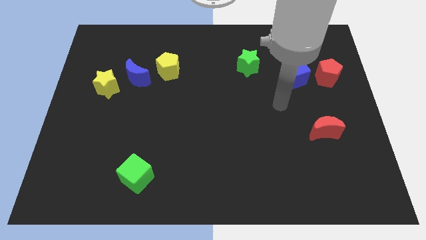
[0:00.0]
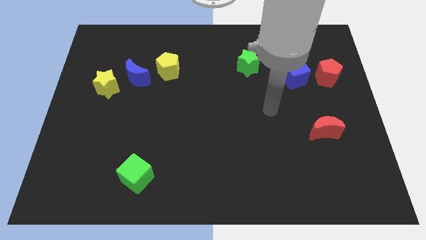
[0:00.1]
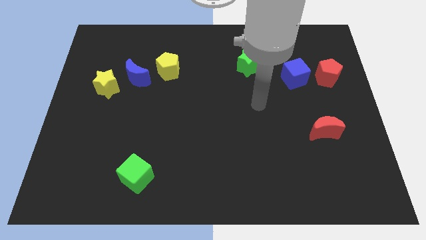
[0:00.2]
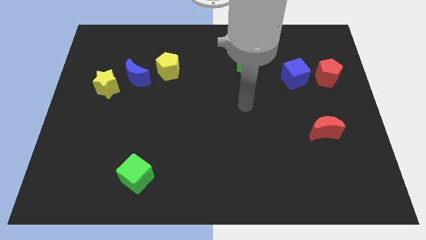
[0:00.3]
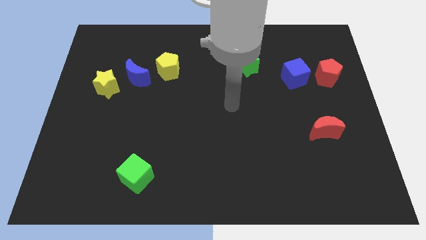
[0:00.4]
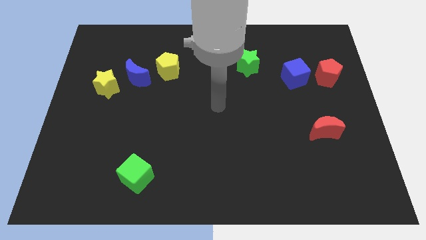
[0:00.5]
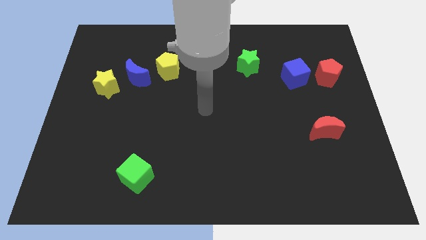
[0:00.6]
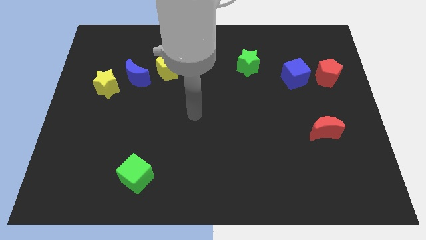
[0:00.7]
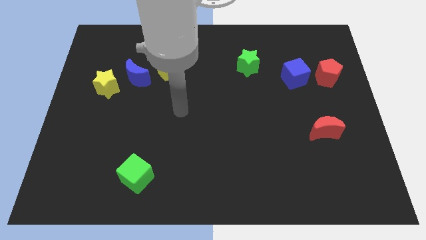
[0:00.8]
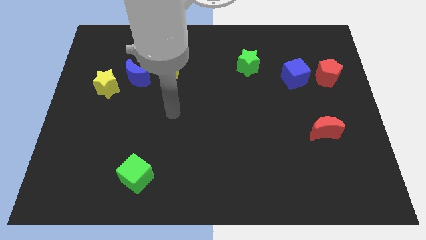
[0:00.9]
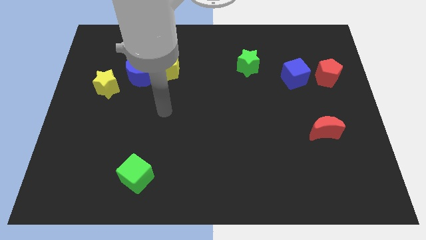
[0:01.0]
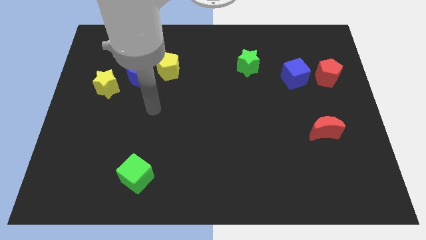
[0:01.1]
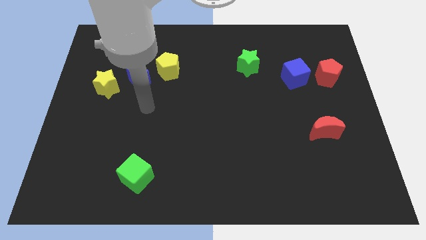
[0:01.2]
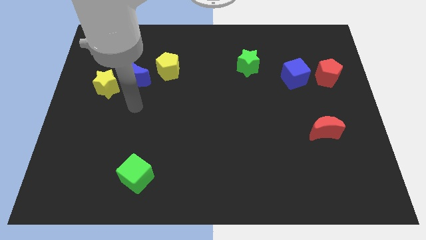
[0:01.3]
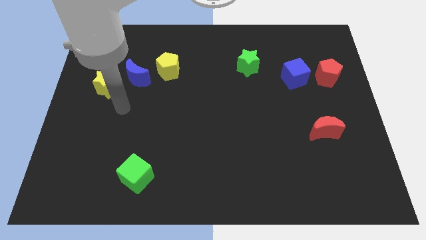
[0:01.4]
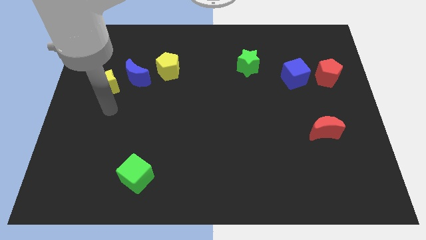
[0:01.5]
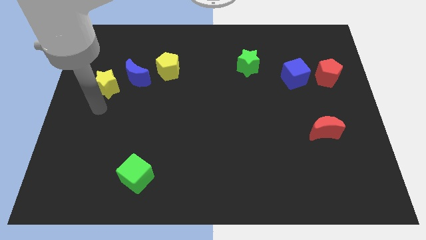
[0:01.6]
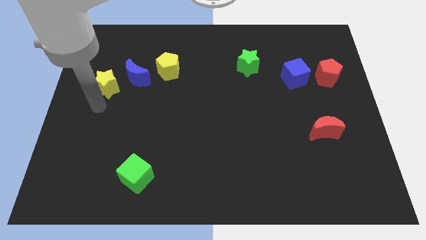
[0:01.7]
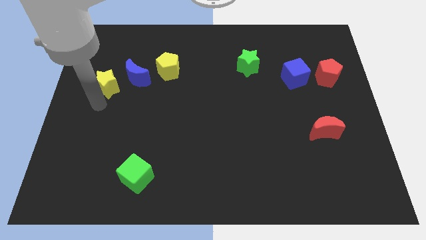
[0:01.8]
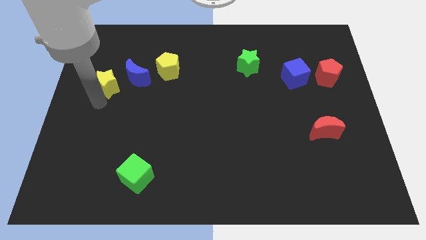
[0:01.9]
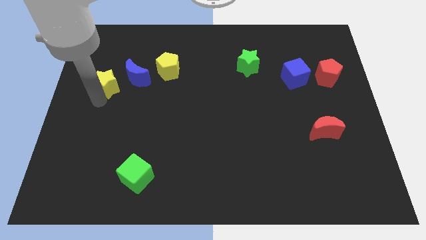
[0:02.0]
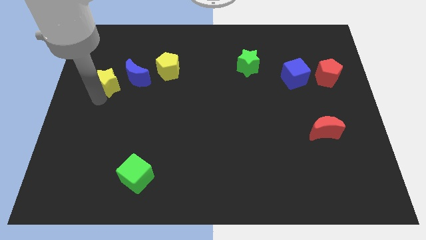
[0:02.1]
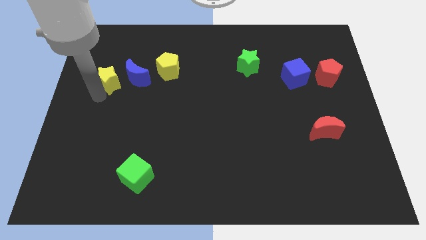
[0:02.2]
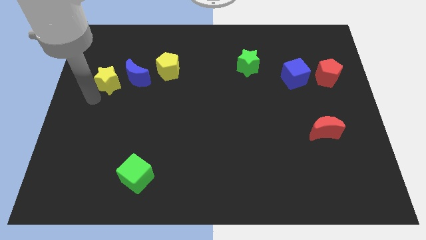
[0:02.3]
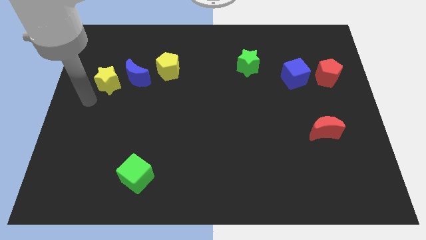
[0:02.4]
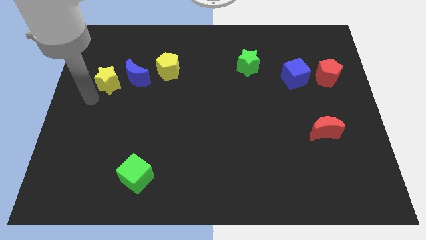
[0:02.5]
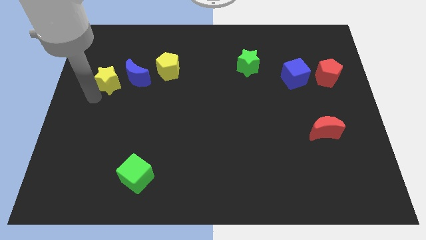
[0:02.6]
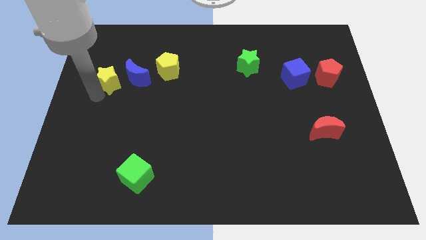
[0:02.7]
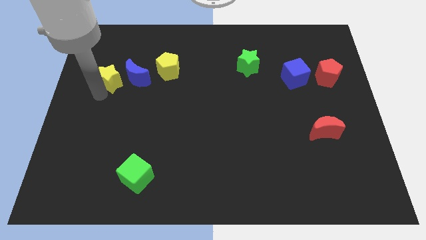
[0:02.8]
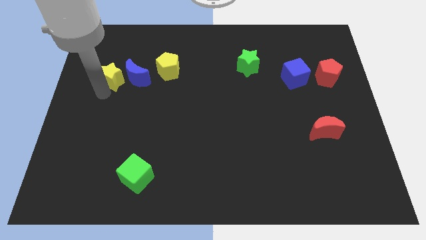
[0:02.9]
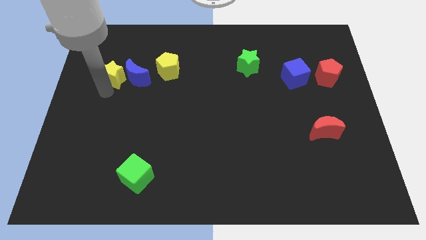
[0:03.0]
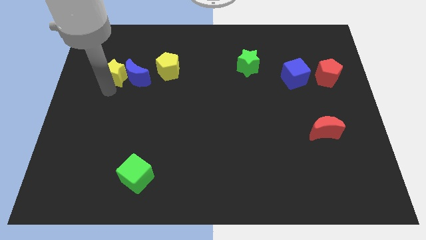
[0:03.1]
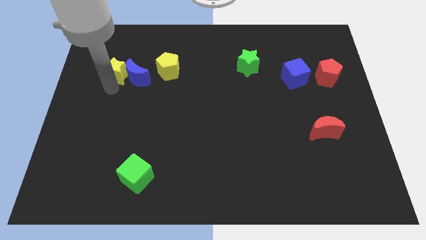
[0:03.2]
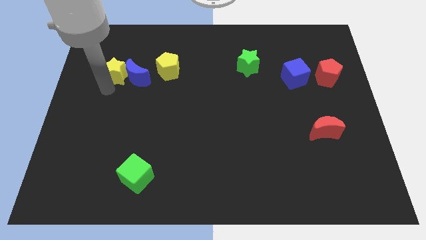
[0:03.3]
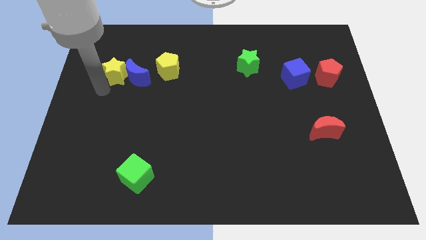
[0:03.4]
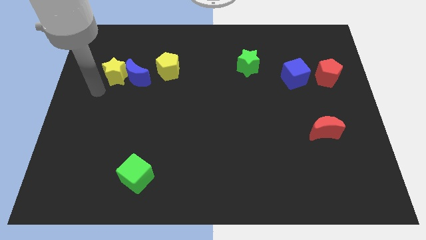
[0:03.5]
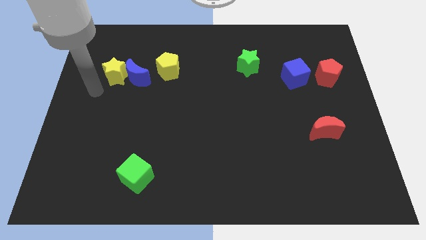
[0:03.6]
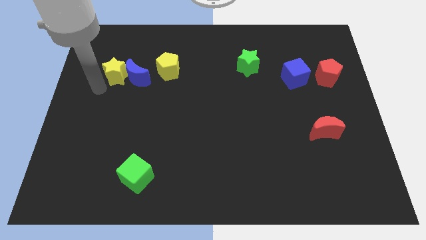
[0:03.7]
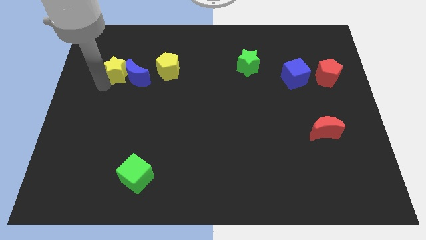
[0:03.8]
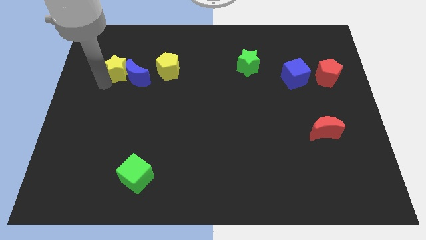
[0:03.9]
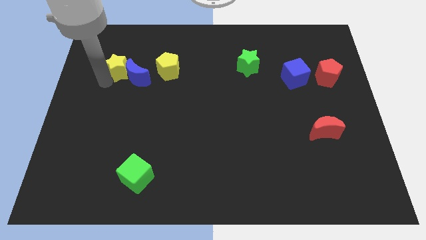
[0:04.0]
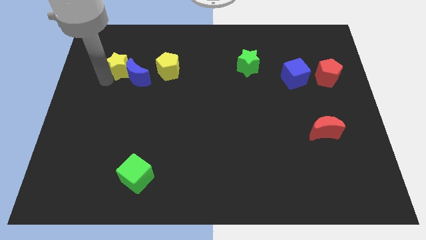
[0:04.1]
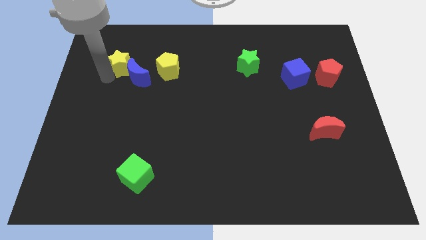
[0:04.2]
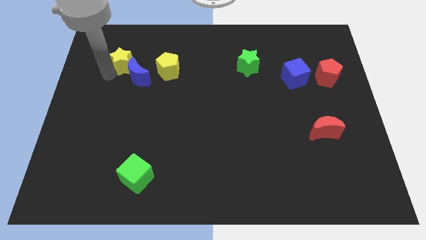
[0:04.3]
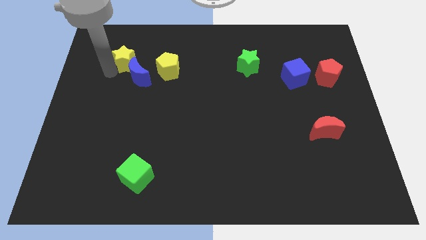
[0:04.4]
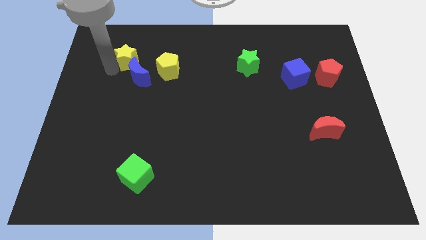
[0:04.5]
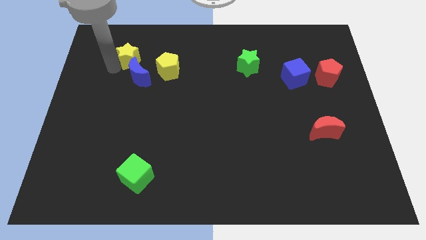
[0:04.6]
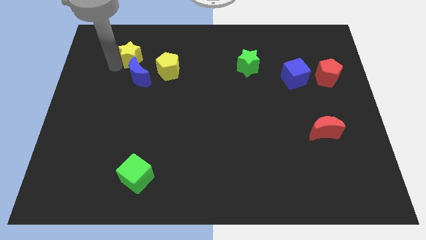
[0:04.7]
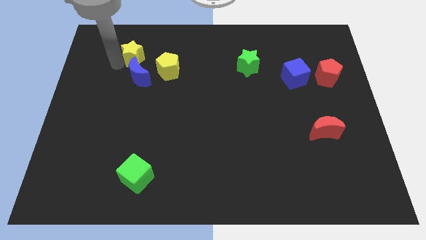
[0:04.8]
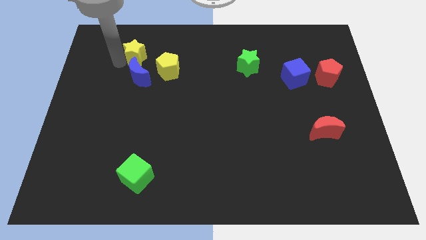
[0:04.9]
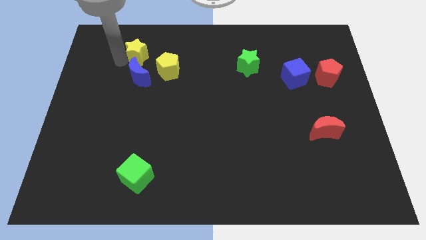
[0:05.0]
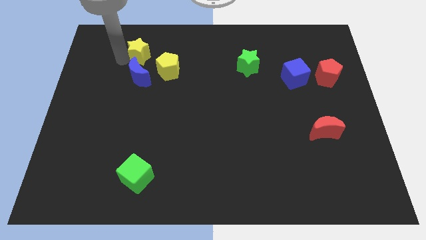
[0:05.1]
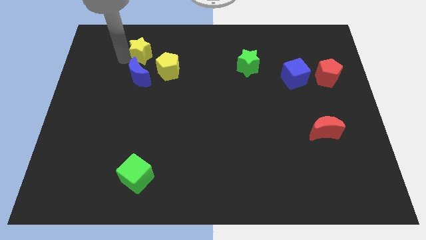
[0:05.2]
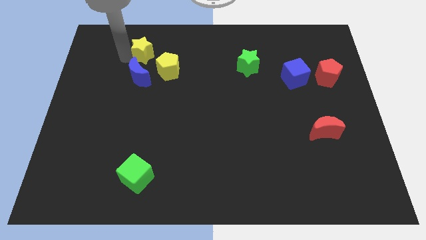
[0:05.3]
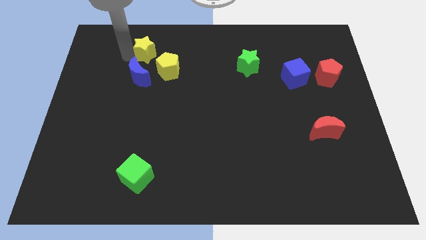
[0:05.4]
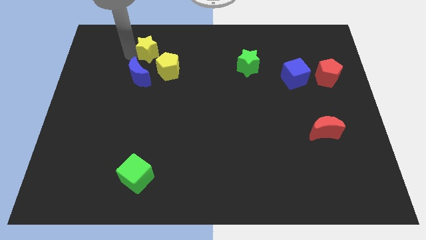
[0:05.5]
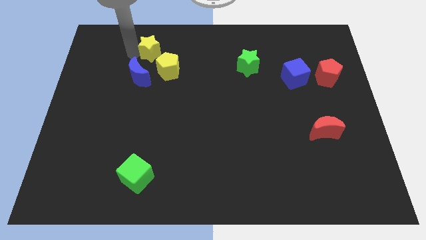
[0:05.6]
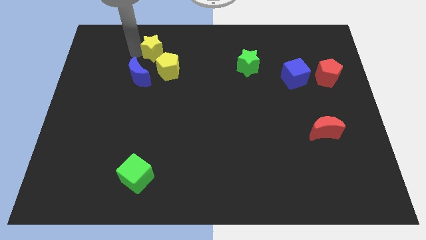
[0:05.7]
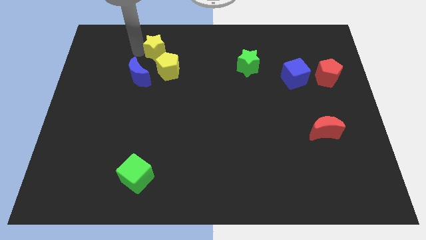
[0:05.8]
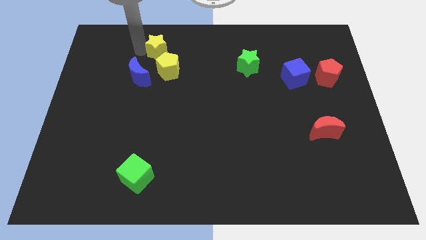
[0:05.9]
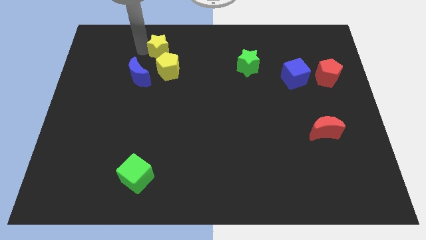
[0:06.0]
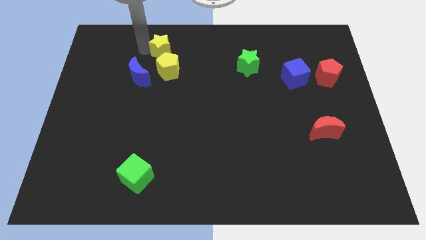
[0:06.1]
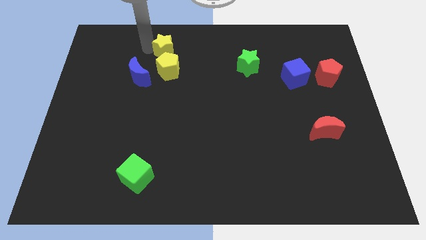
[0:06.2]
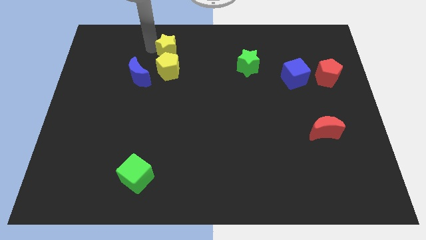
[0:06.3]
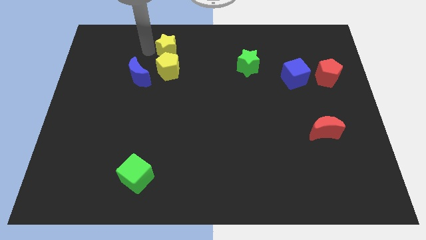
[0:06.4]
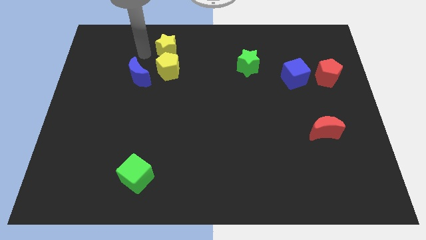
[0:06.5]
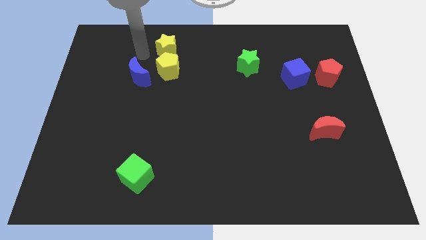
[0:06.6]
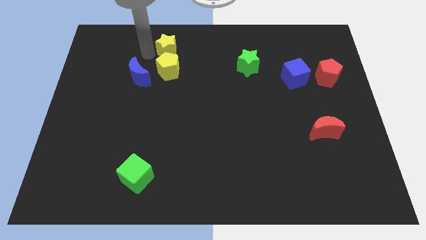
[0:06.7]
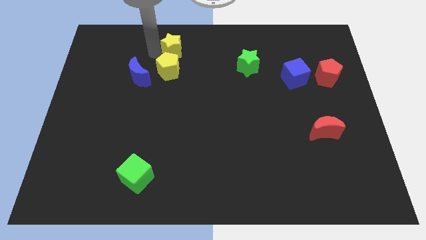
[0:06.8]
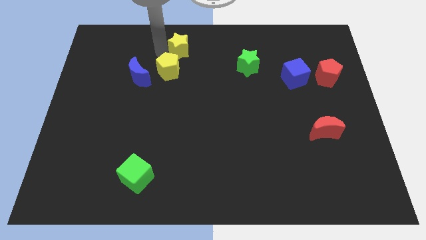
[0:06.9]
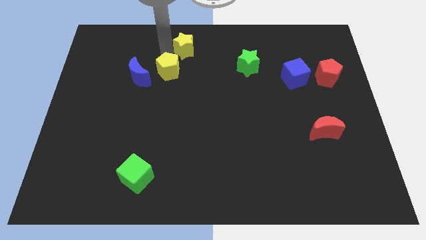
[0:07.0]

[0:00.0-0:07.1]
slide the yellow star to the towards your base
